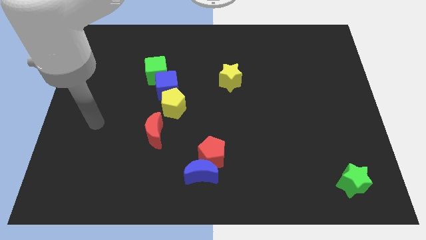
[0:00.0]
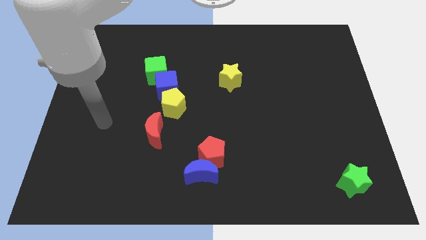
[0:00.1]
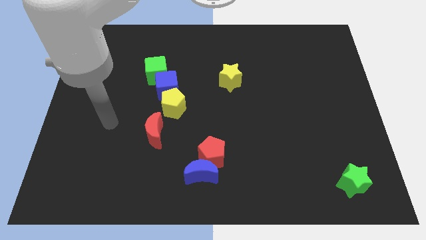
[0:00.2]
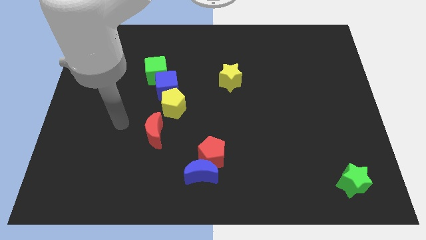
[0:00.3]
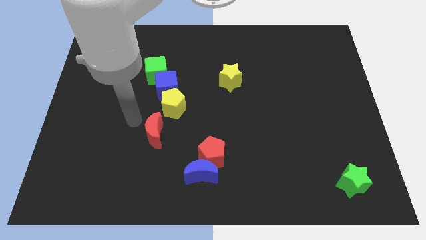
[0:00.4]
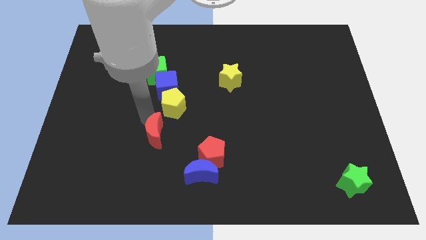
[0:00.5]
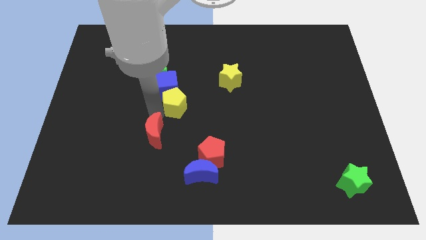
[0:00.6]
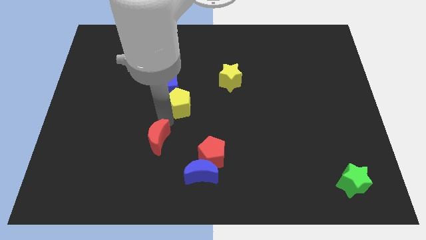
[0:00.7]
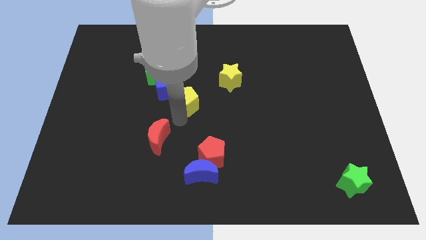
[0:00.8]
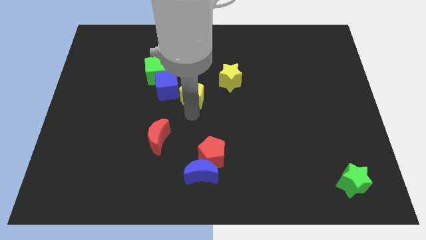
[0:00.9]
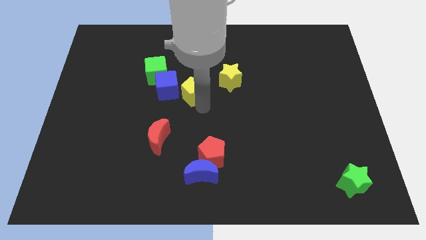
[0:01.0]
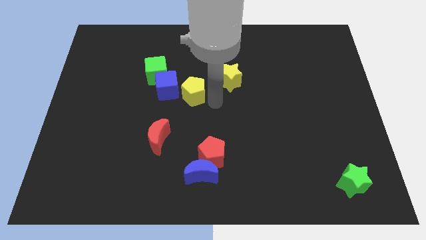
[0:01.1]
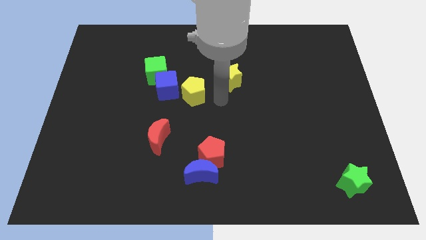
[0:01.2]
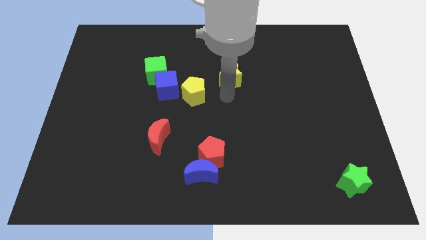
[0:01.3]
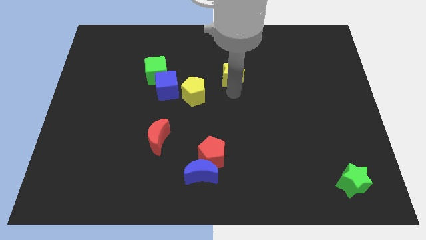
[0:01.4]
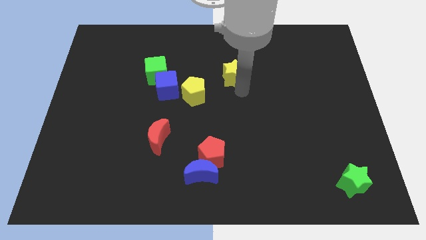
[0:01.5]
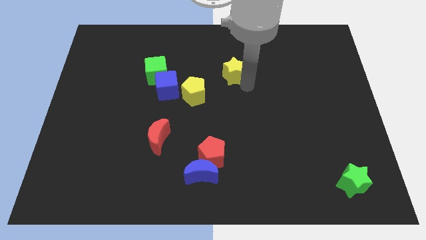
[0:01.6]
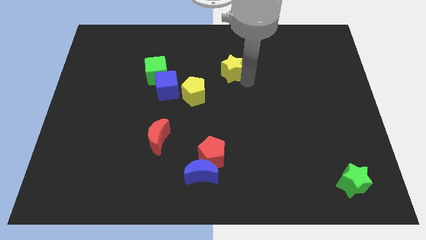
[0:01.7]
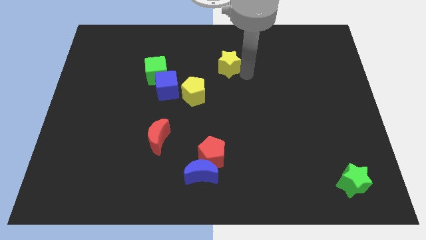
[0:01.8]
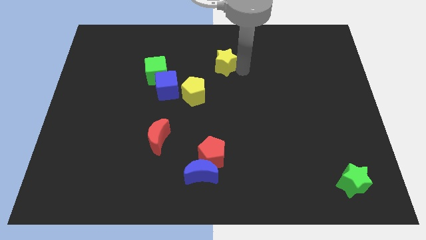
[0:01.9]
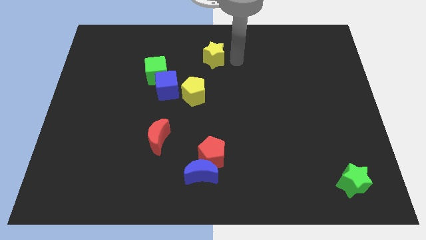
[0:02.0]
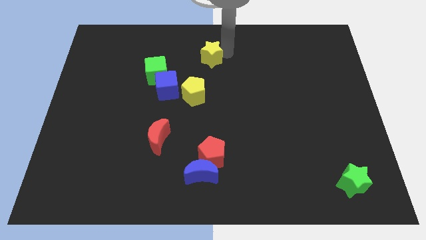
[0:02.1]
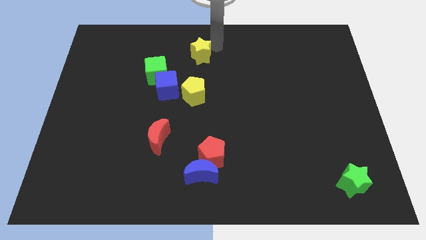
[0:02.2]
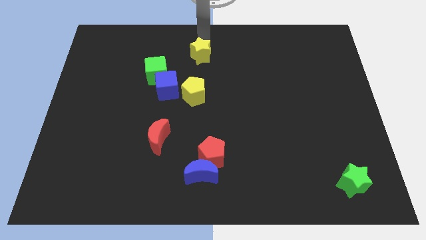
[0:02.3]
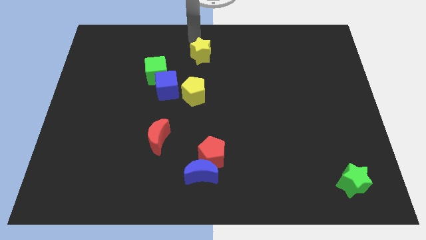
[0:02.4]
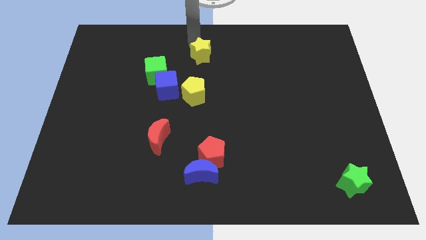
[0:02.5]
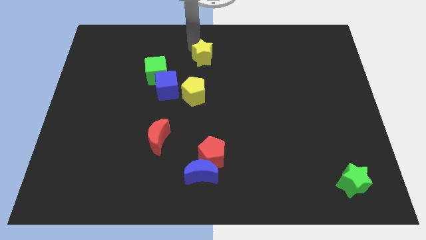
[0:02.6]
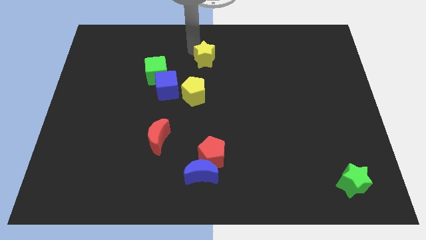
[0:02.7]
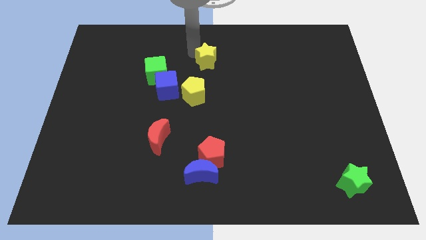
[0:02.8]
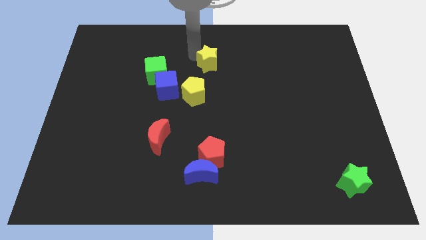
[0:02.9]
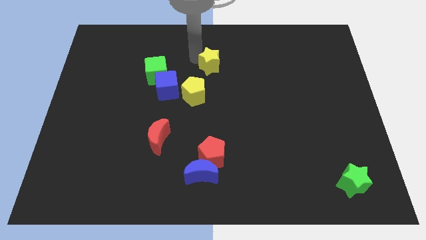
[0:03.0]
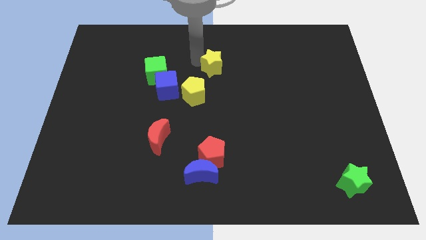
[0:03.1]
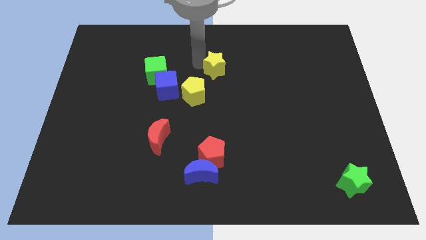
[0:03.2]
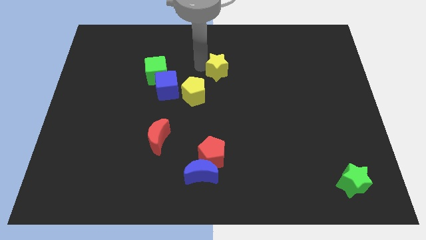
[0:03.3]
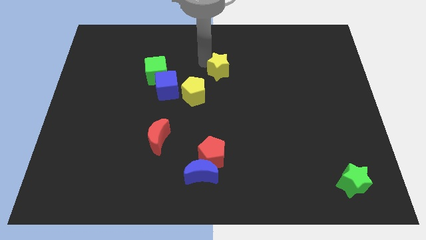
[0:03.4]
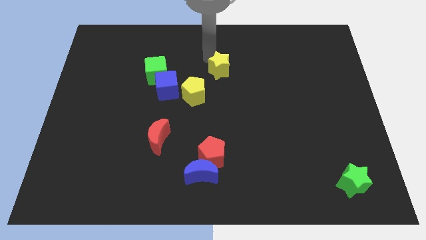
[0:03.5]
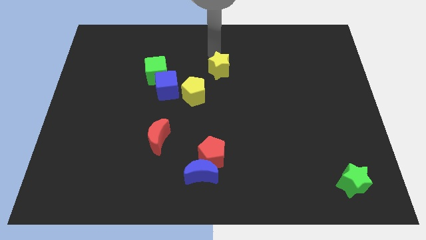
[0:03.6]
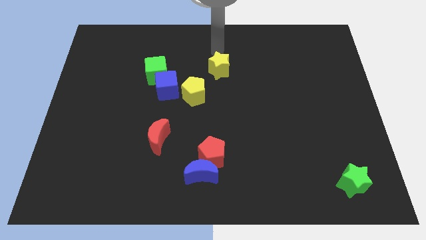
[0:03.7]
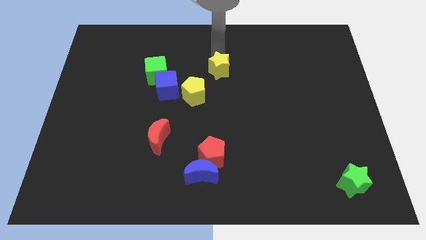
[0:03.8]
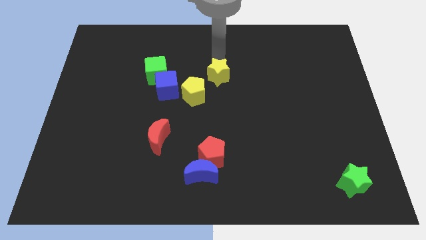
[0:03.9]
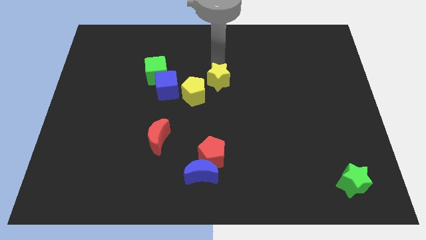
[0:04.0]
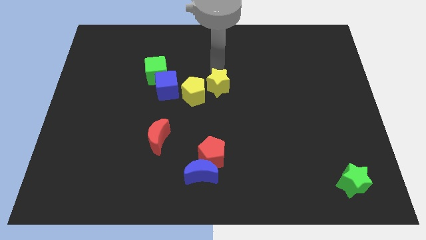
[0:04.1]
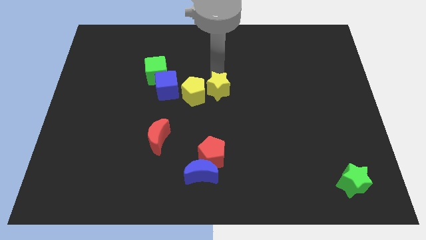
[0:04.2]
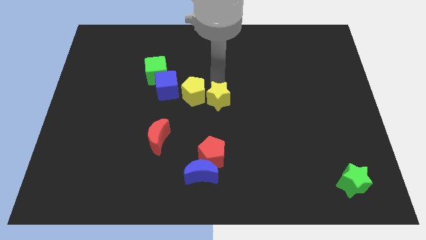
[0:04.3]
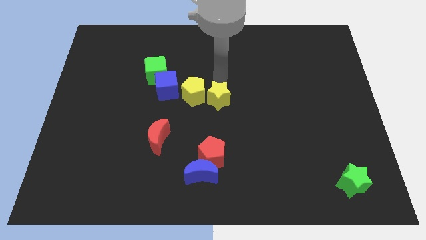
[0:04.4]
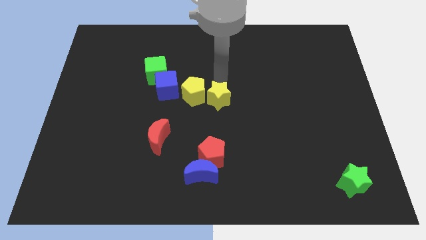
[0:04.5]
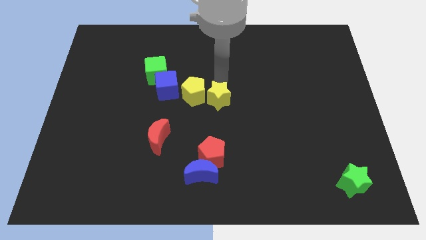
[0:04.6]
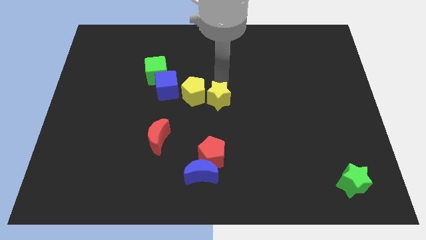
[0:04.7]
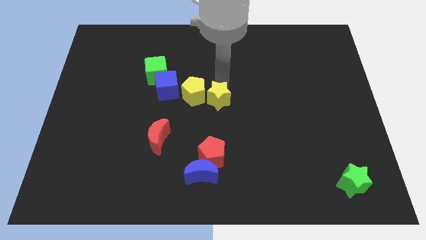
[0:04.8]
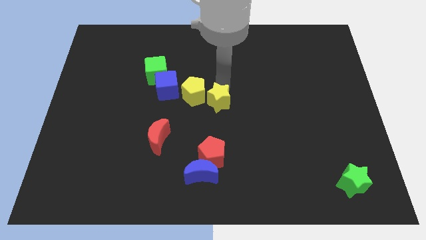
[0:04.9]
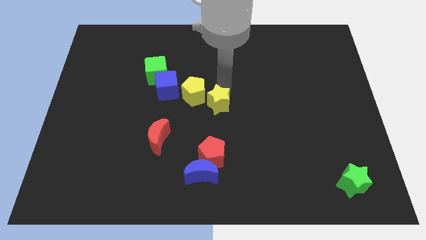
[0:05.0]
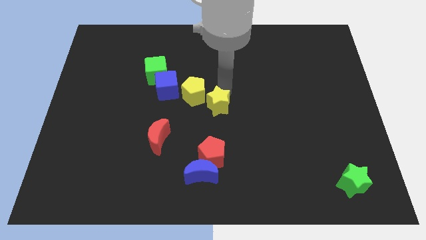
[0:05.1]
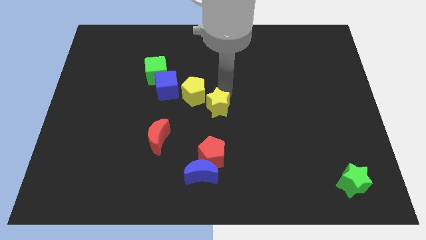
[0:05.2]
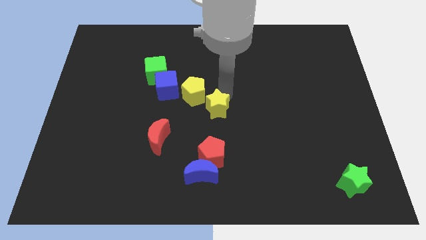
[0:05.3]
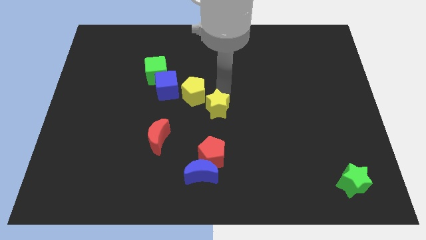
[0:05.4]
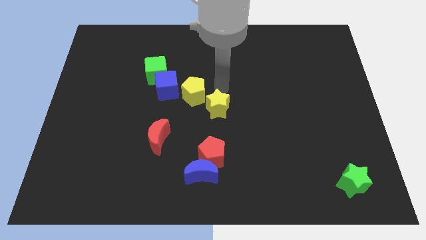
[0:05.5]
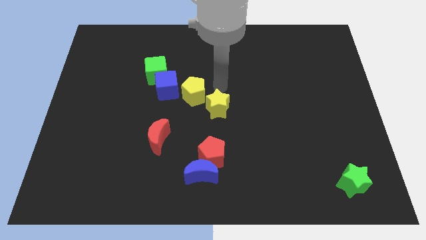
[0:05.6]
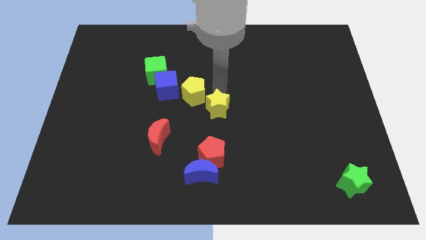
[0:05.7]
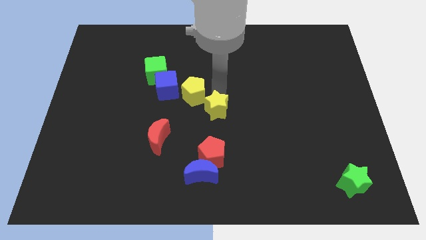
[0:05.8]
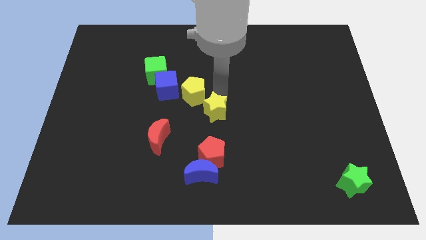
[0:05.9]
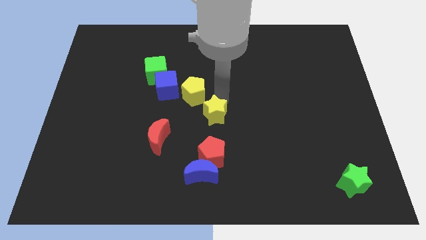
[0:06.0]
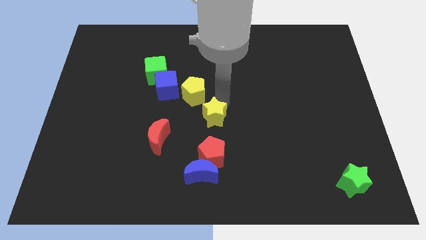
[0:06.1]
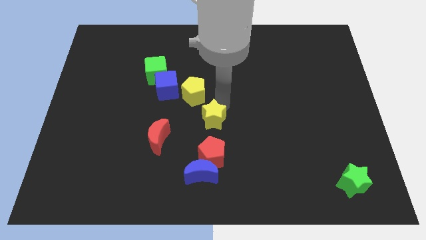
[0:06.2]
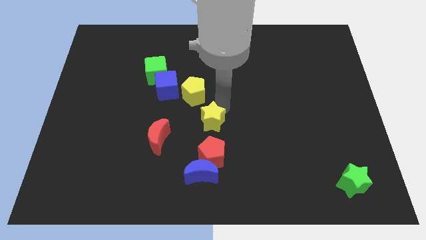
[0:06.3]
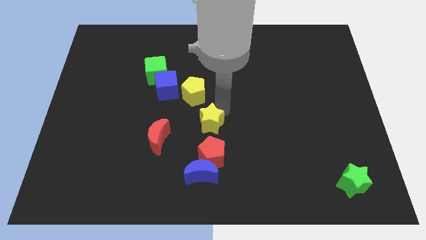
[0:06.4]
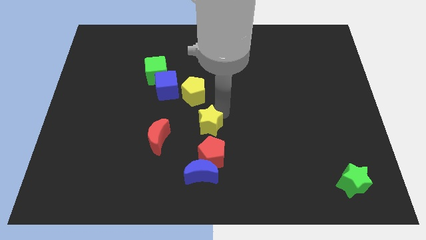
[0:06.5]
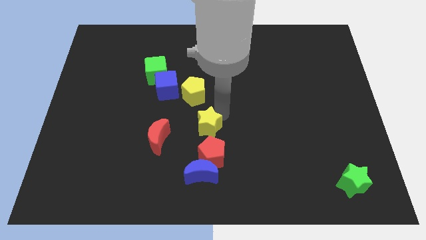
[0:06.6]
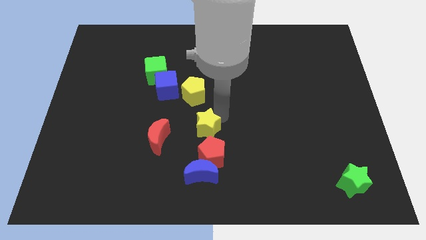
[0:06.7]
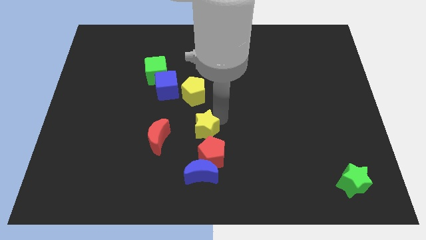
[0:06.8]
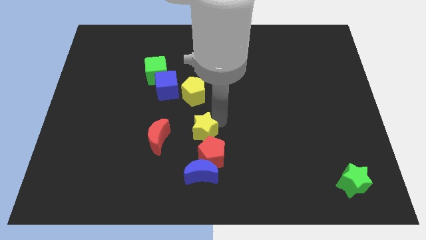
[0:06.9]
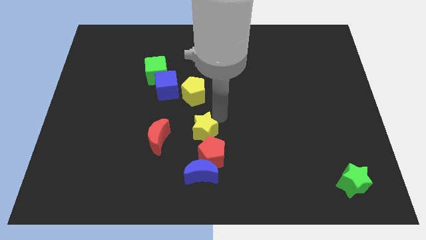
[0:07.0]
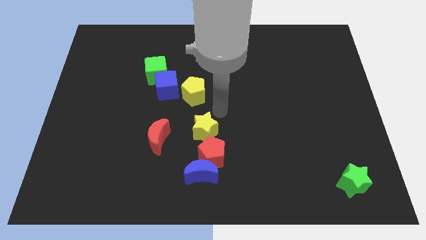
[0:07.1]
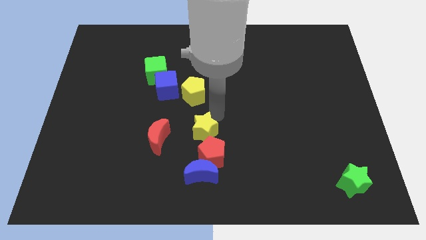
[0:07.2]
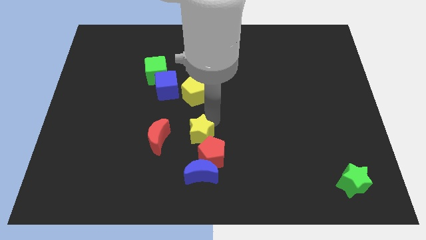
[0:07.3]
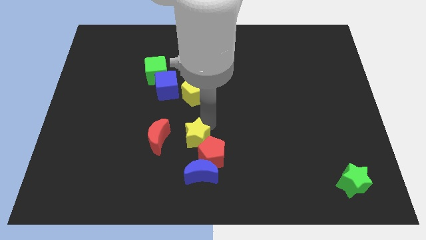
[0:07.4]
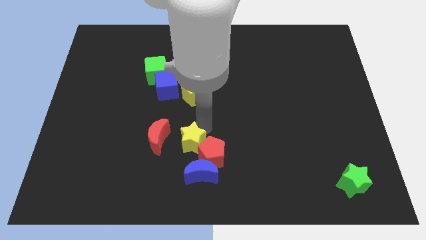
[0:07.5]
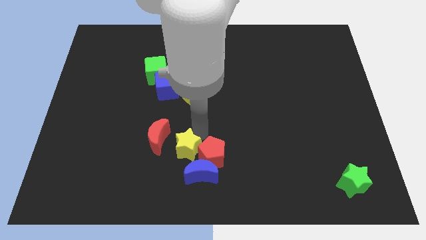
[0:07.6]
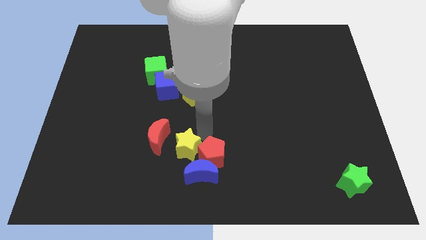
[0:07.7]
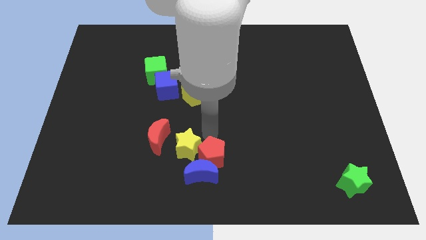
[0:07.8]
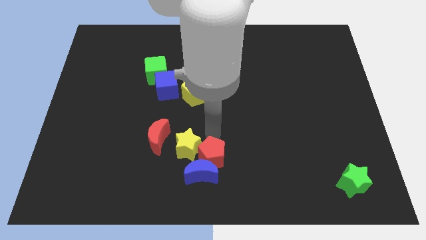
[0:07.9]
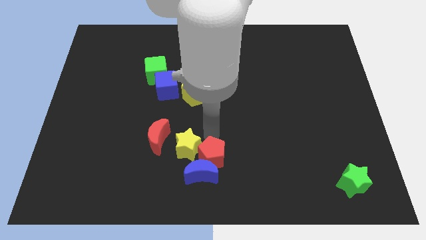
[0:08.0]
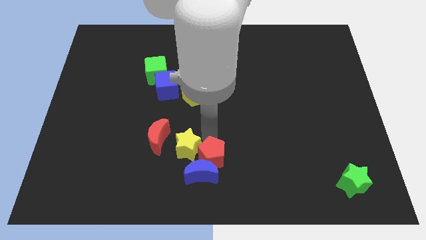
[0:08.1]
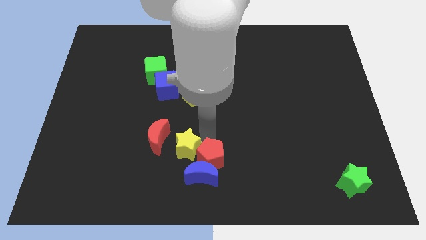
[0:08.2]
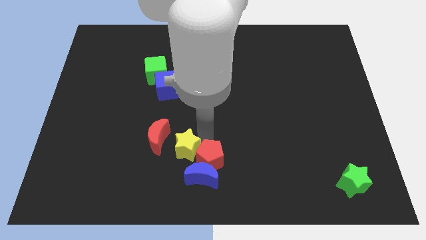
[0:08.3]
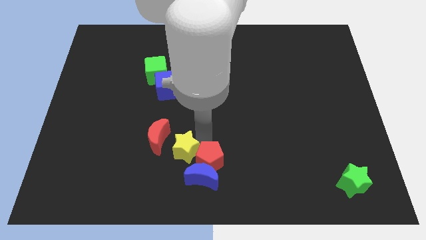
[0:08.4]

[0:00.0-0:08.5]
slide the yellow star down and left diagonally
